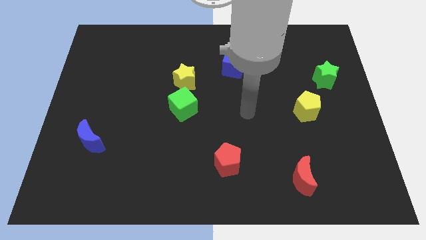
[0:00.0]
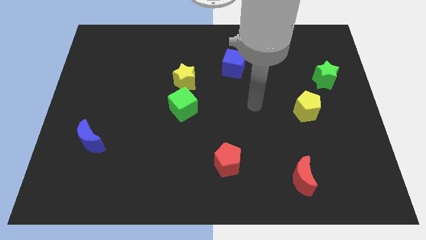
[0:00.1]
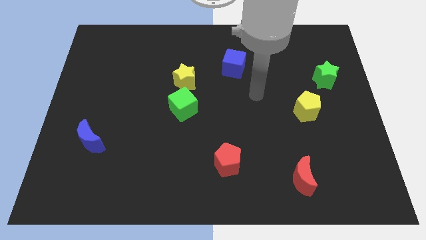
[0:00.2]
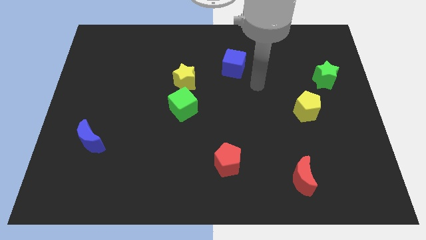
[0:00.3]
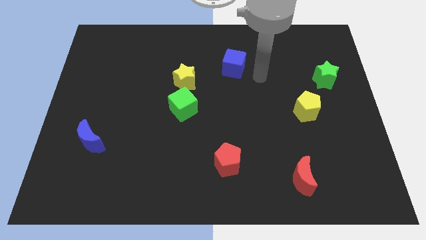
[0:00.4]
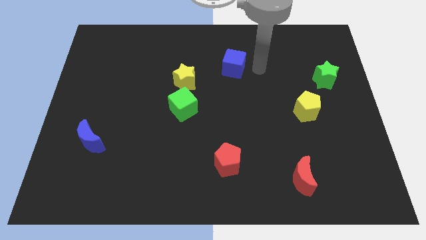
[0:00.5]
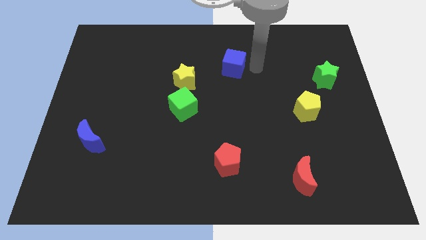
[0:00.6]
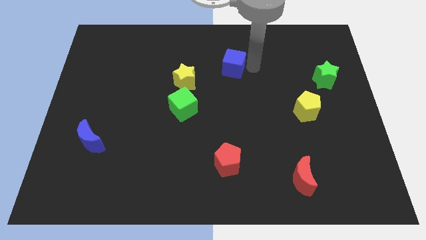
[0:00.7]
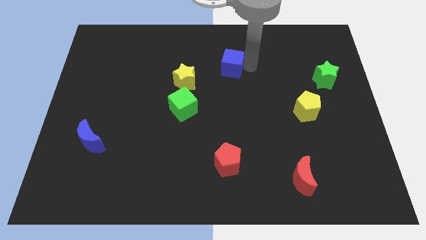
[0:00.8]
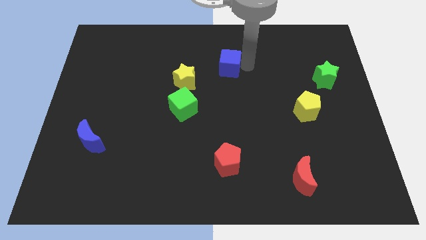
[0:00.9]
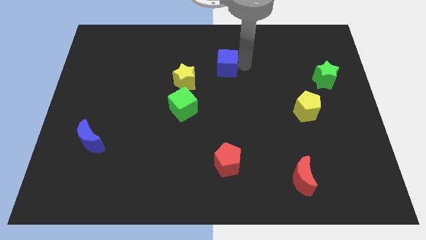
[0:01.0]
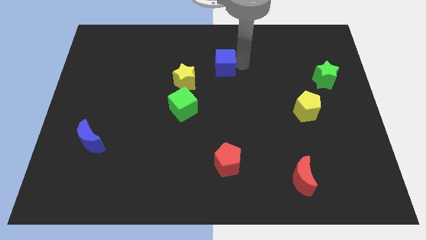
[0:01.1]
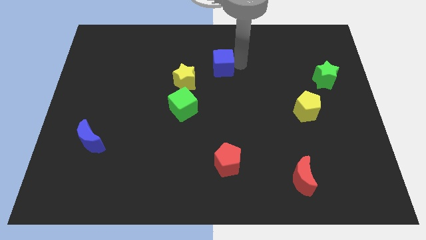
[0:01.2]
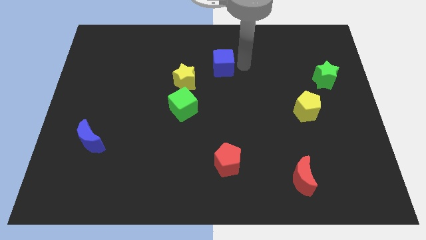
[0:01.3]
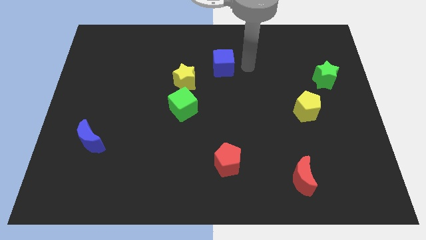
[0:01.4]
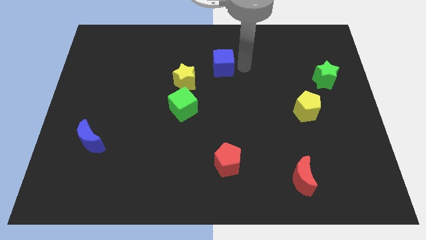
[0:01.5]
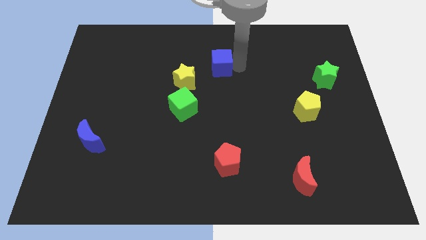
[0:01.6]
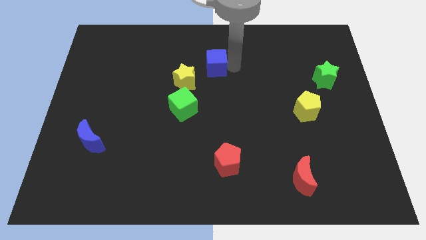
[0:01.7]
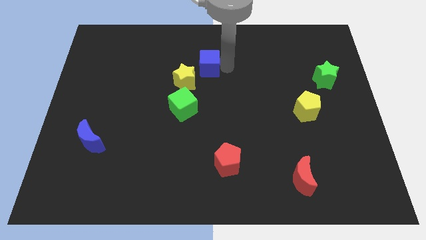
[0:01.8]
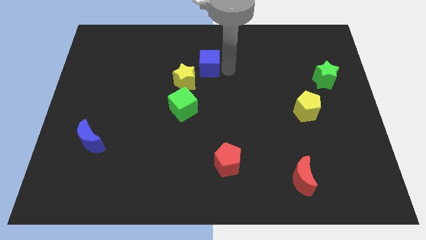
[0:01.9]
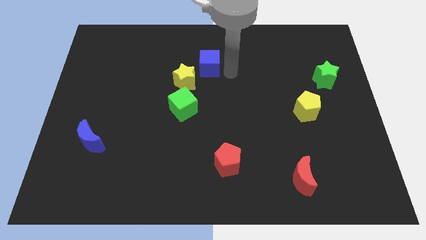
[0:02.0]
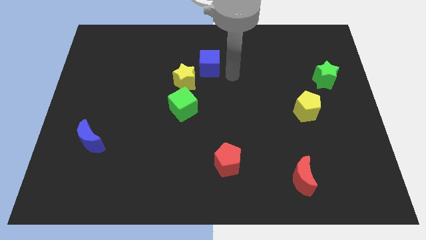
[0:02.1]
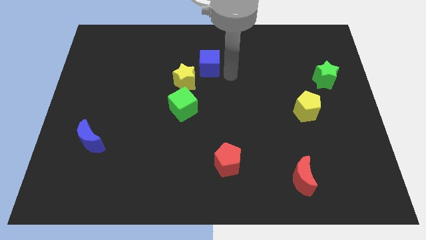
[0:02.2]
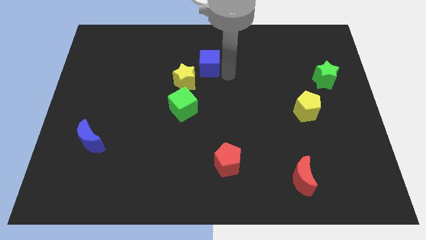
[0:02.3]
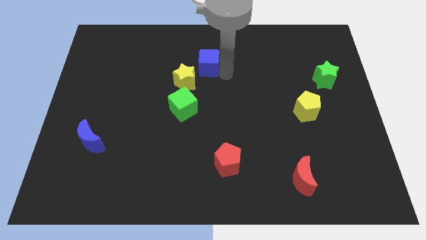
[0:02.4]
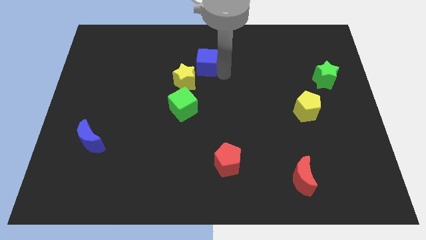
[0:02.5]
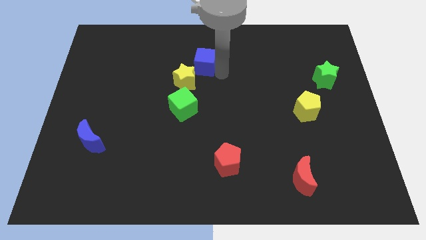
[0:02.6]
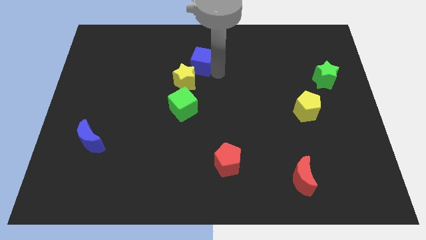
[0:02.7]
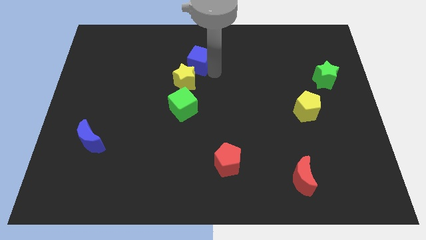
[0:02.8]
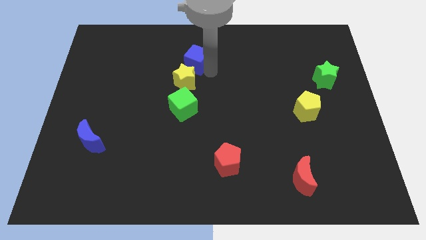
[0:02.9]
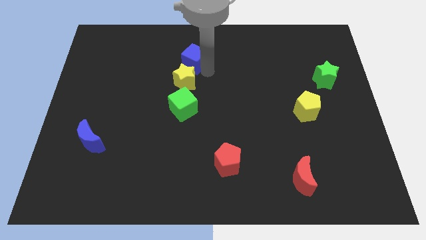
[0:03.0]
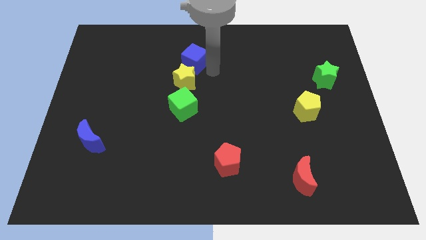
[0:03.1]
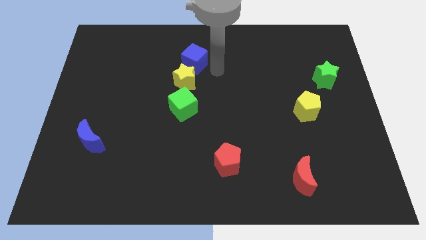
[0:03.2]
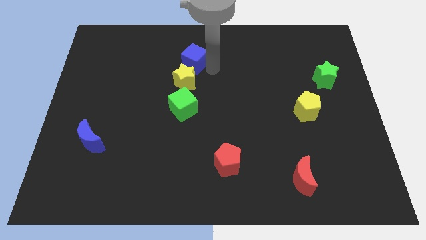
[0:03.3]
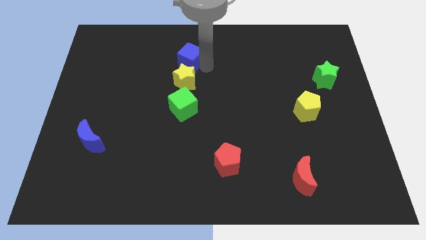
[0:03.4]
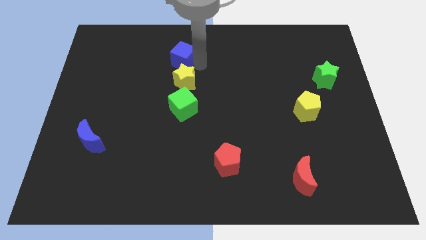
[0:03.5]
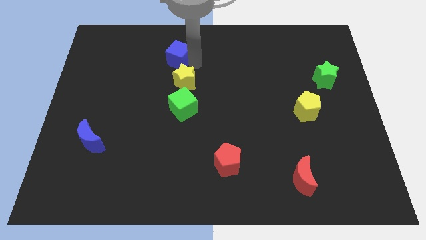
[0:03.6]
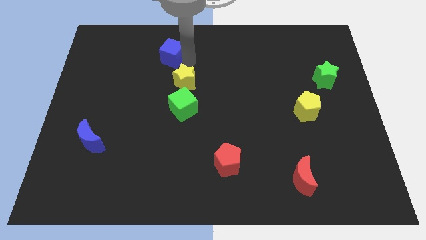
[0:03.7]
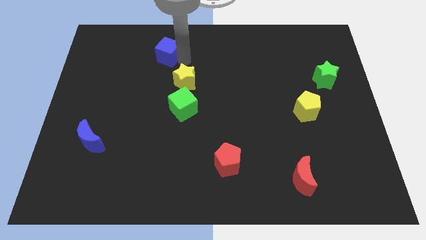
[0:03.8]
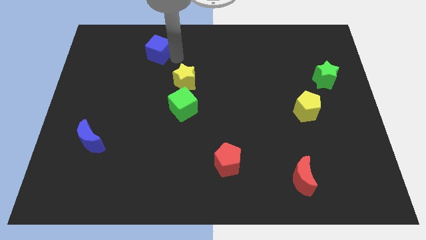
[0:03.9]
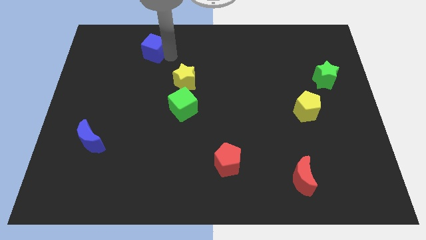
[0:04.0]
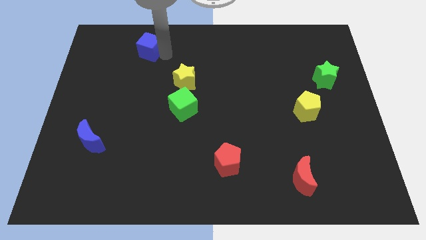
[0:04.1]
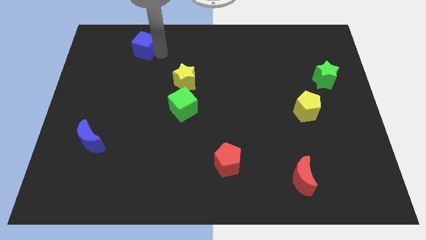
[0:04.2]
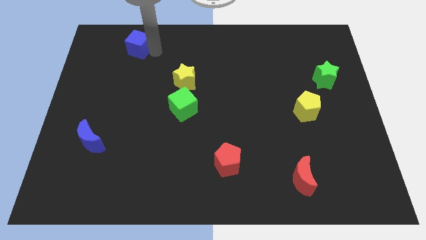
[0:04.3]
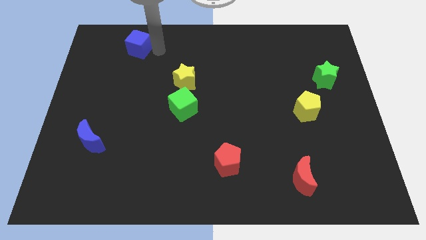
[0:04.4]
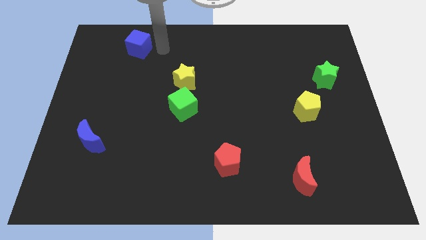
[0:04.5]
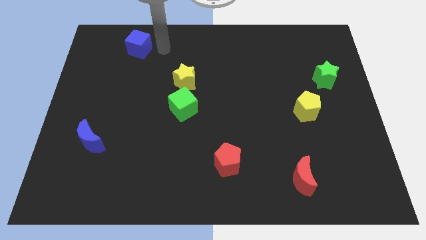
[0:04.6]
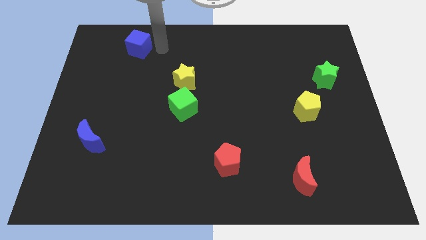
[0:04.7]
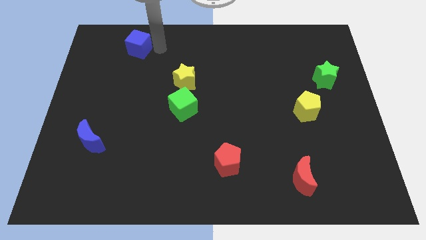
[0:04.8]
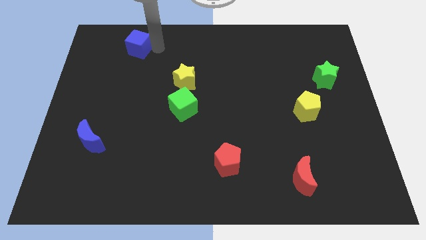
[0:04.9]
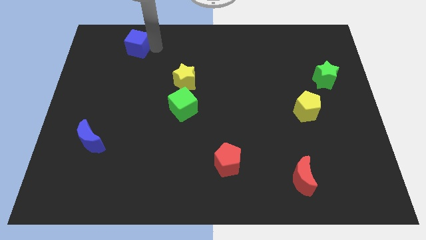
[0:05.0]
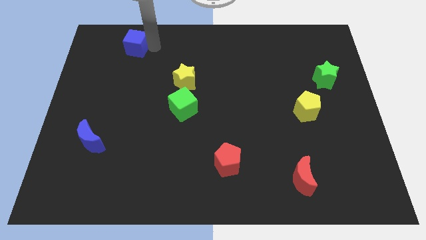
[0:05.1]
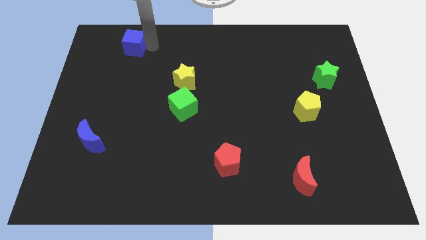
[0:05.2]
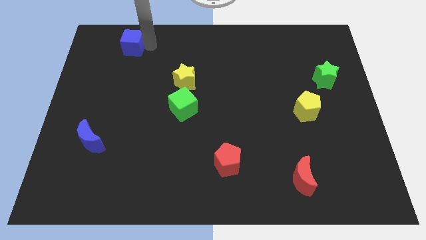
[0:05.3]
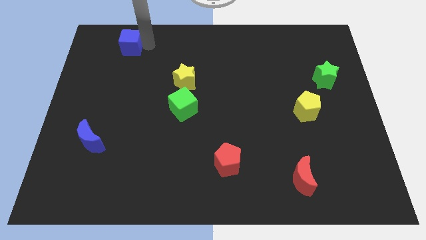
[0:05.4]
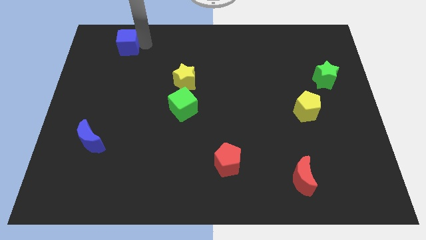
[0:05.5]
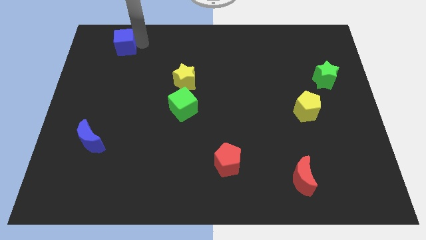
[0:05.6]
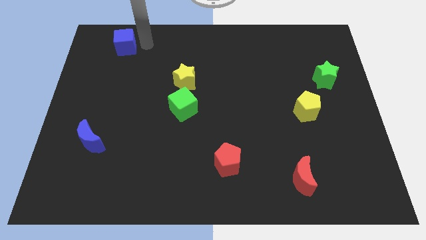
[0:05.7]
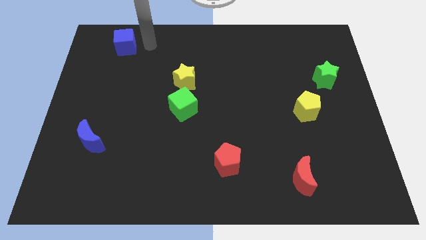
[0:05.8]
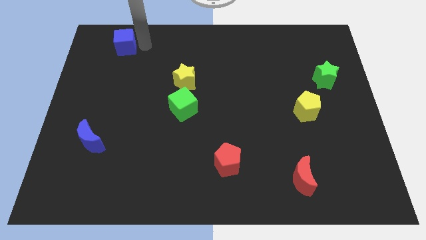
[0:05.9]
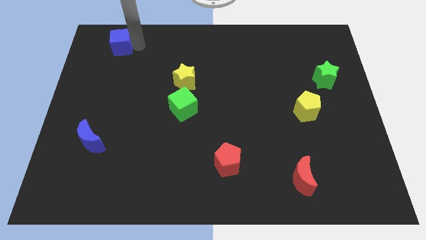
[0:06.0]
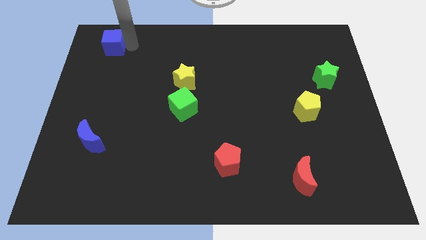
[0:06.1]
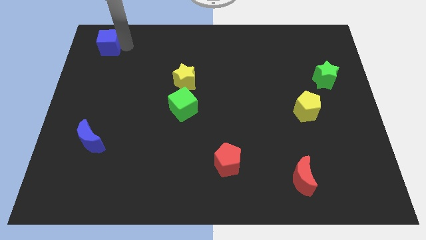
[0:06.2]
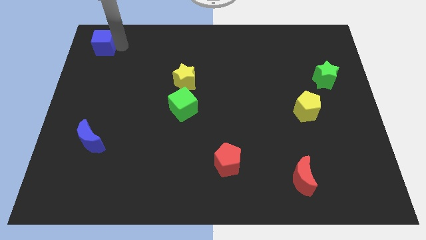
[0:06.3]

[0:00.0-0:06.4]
move the blue cube to the top left

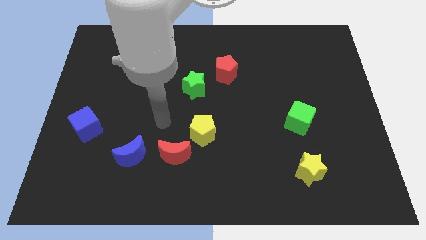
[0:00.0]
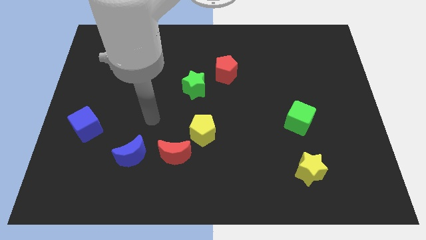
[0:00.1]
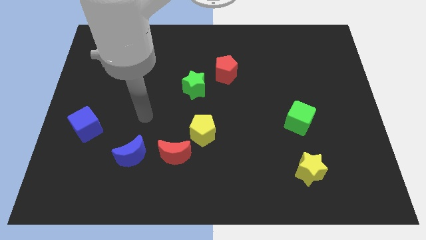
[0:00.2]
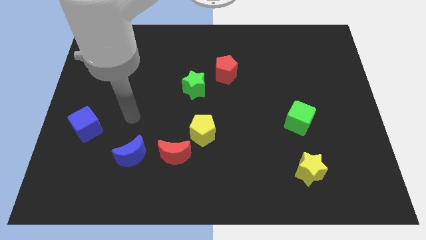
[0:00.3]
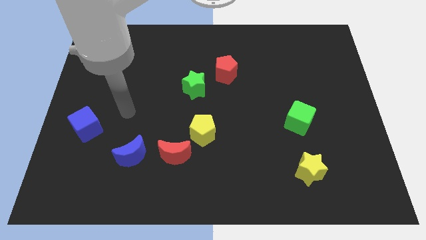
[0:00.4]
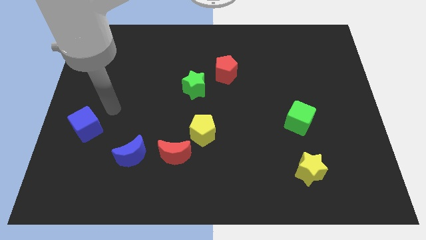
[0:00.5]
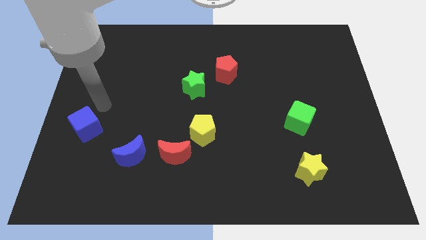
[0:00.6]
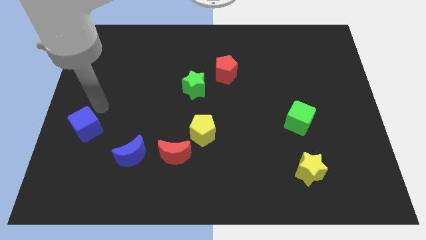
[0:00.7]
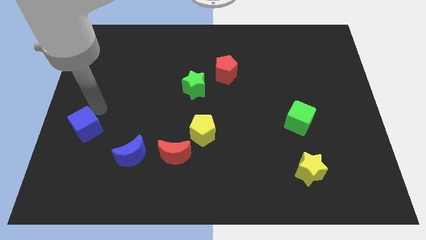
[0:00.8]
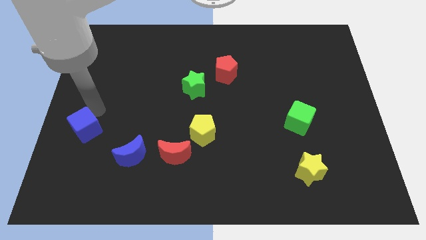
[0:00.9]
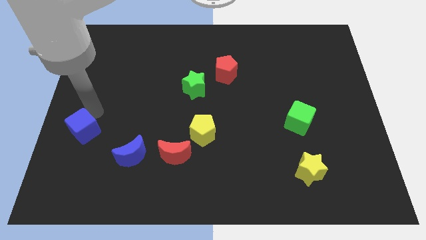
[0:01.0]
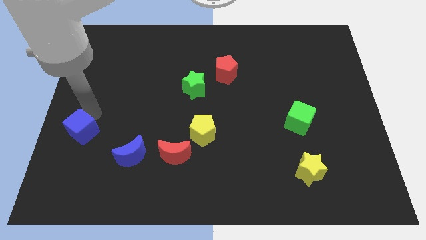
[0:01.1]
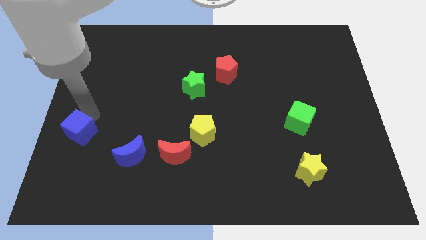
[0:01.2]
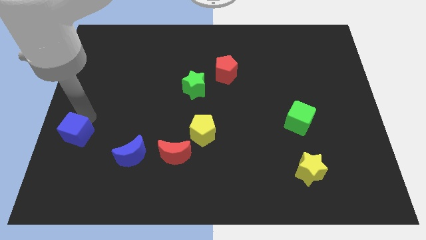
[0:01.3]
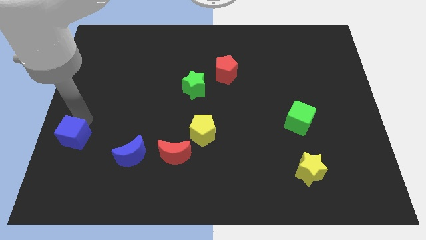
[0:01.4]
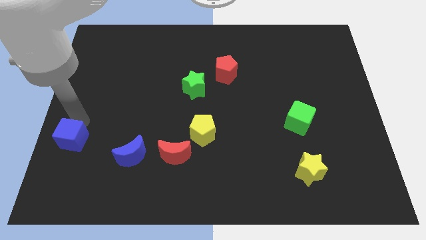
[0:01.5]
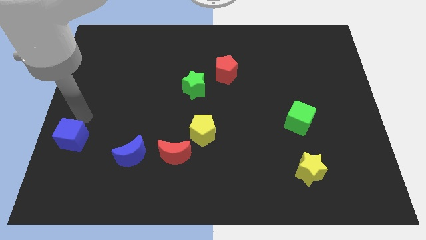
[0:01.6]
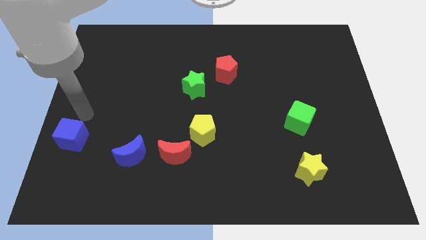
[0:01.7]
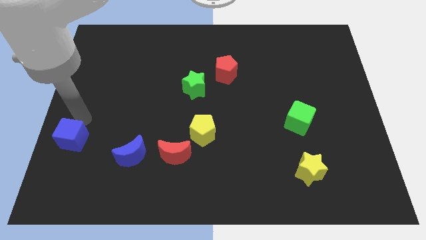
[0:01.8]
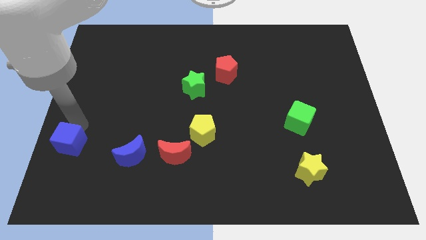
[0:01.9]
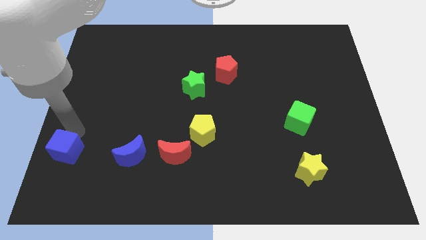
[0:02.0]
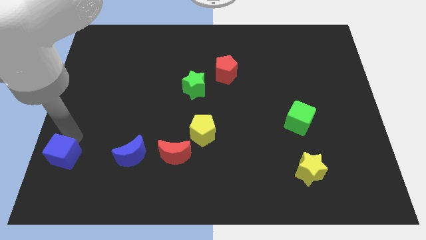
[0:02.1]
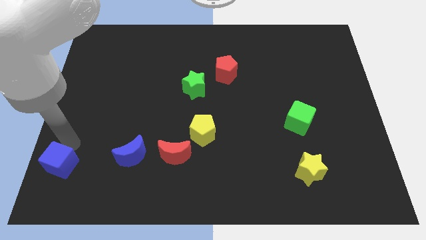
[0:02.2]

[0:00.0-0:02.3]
move the blue cube to the lower left corner
